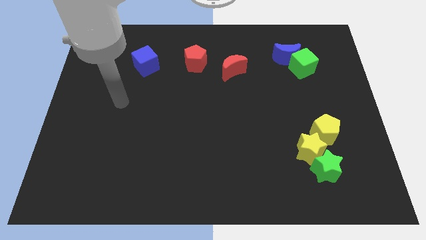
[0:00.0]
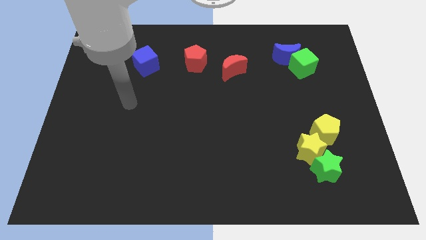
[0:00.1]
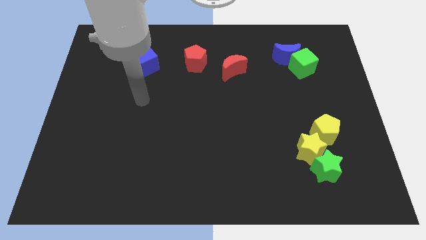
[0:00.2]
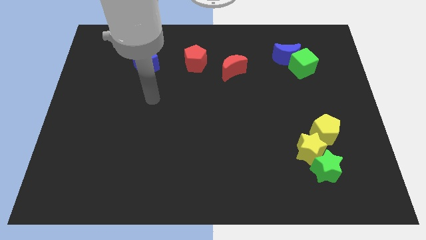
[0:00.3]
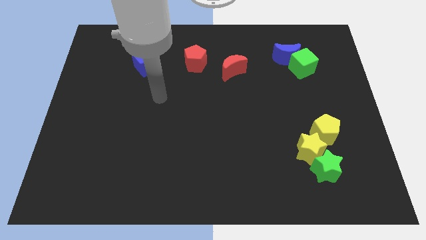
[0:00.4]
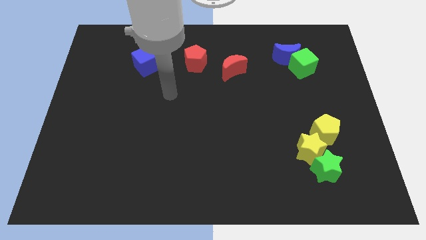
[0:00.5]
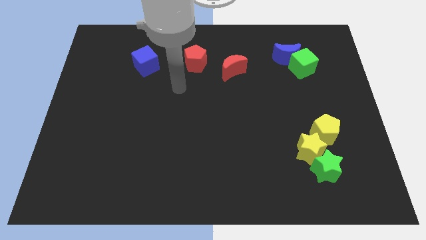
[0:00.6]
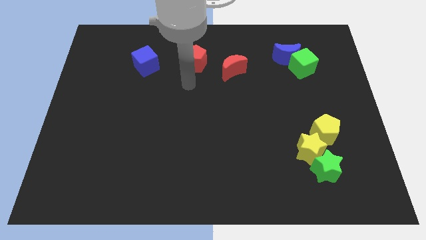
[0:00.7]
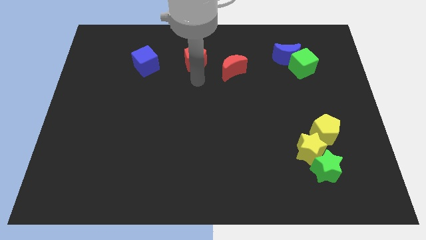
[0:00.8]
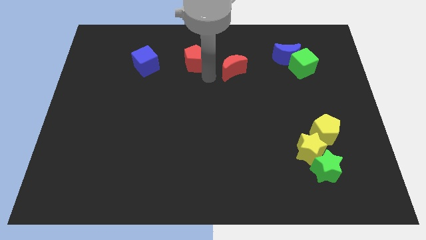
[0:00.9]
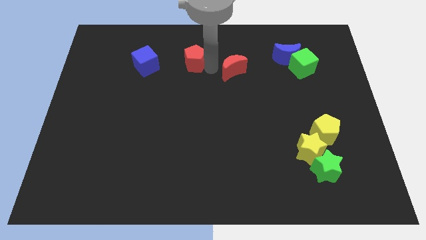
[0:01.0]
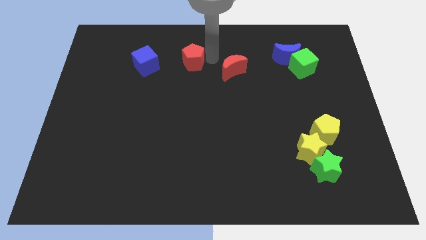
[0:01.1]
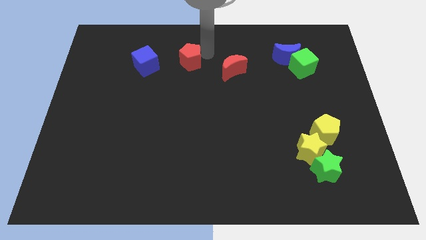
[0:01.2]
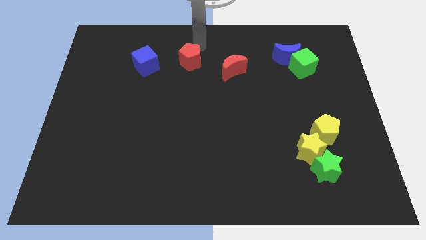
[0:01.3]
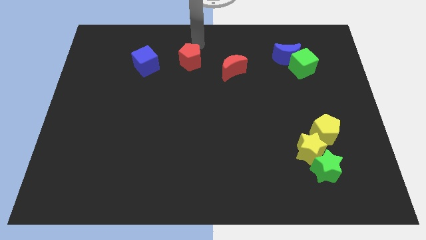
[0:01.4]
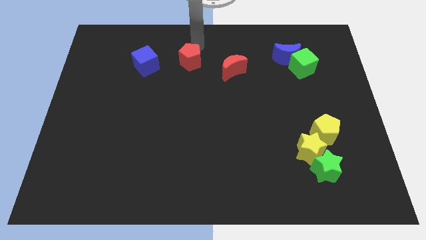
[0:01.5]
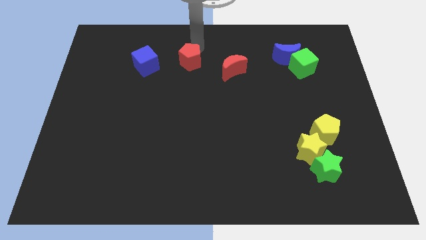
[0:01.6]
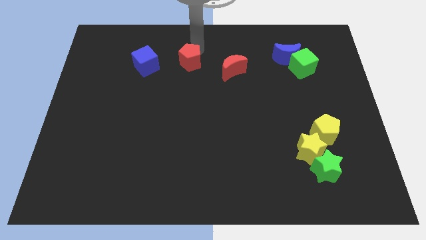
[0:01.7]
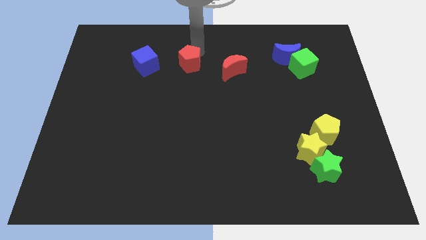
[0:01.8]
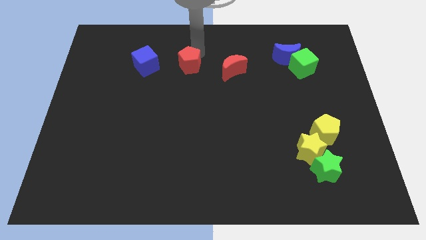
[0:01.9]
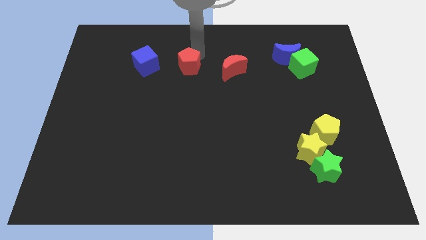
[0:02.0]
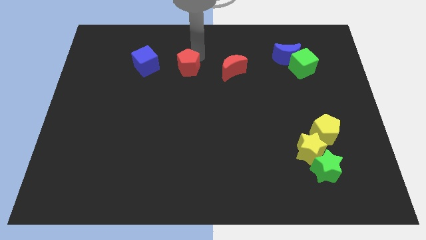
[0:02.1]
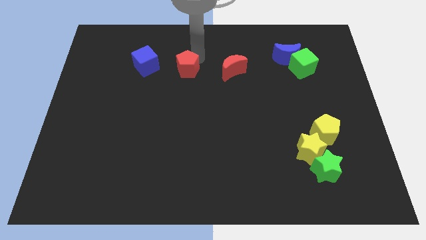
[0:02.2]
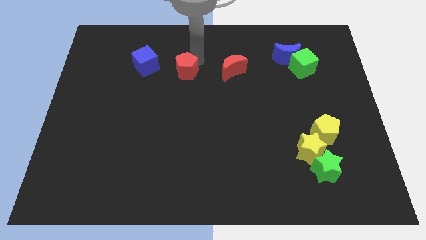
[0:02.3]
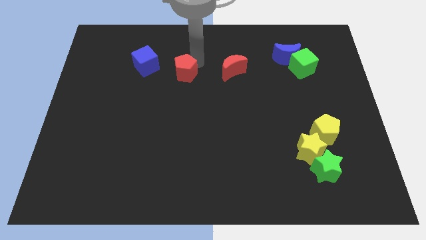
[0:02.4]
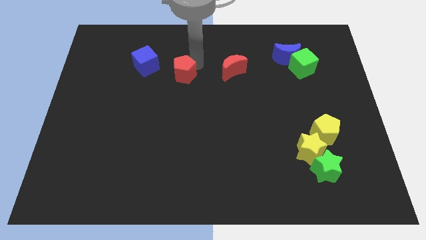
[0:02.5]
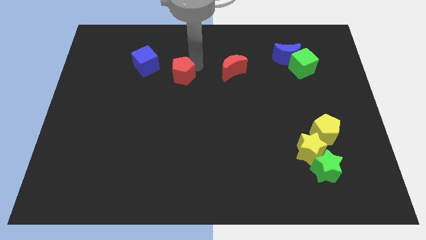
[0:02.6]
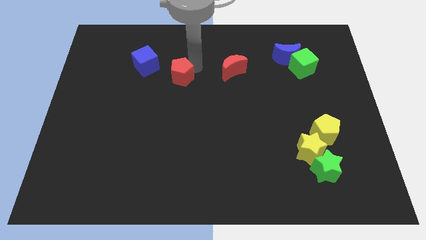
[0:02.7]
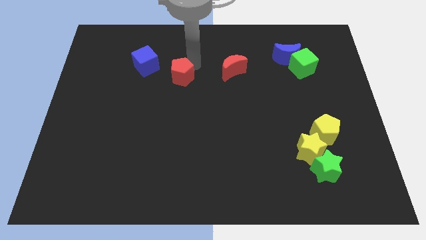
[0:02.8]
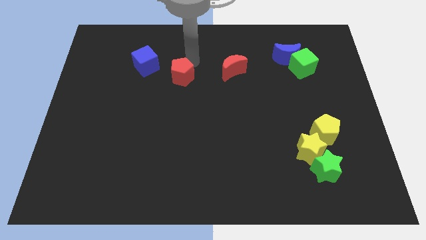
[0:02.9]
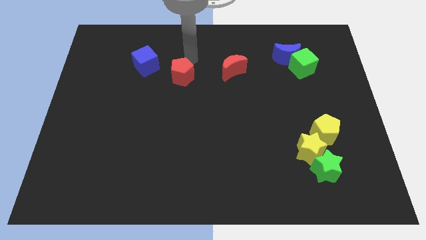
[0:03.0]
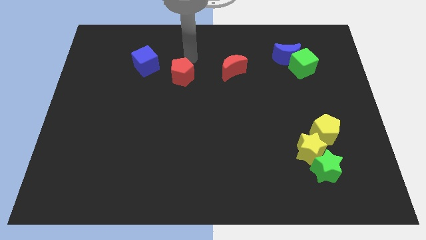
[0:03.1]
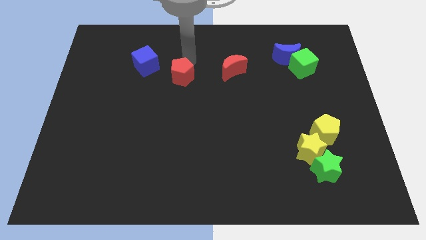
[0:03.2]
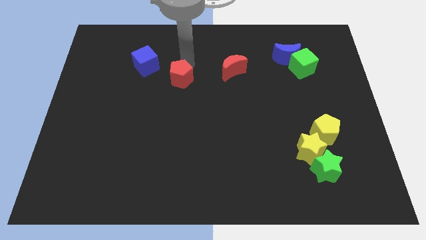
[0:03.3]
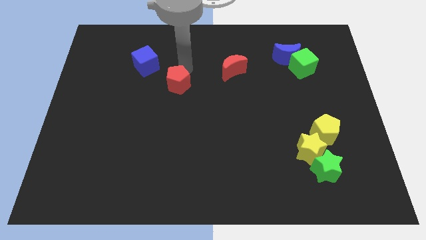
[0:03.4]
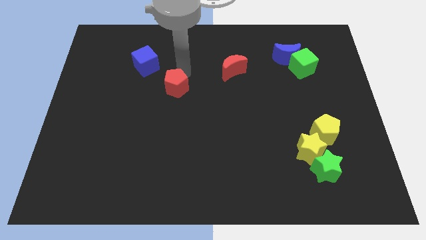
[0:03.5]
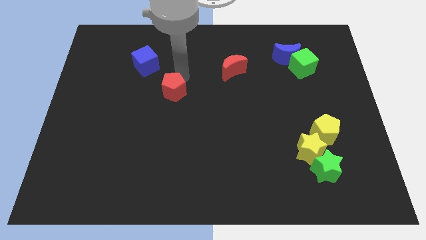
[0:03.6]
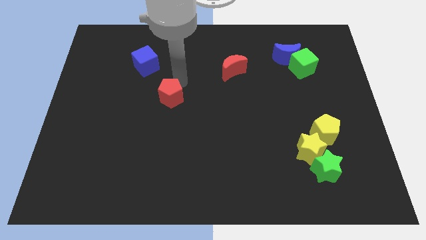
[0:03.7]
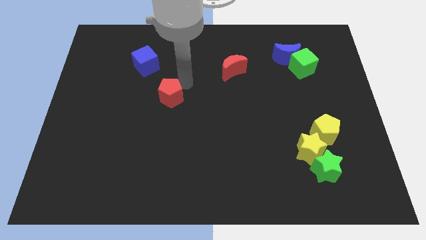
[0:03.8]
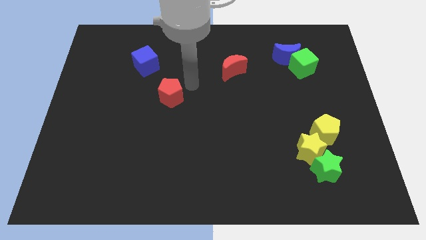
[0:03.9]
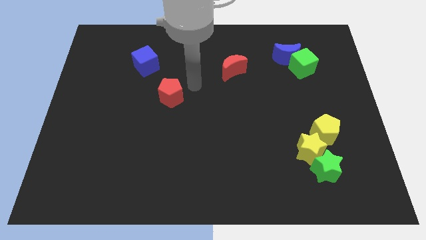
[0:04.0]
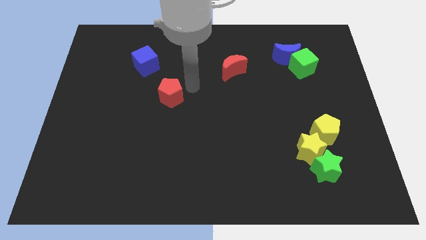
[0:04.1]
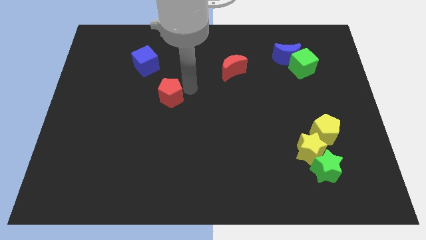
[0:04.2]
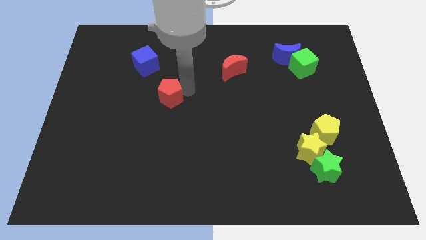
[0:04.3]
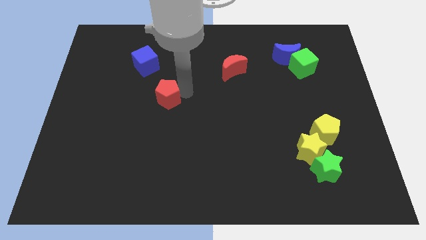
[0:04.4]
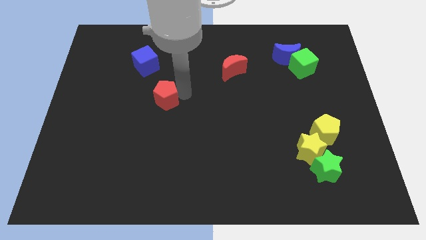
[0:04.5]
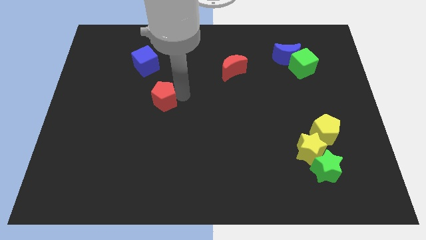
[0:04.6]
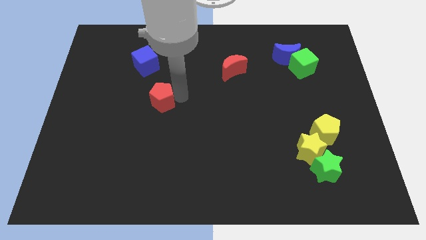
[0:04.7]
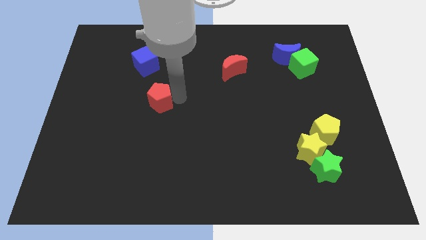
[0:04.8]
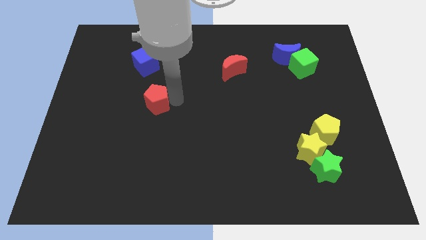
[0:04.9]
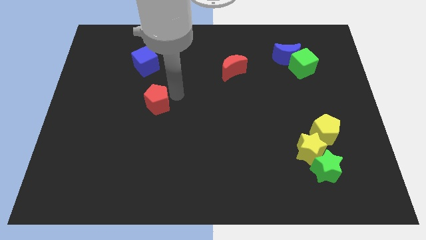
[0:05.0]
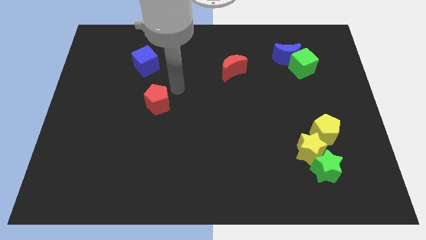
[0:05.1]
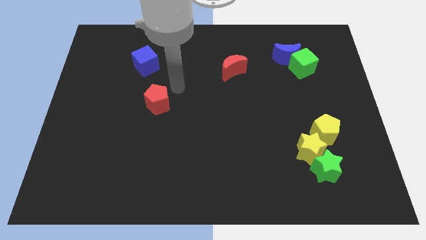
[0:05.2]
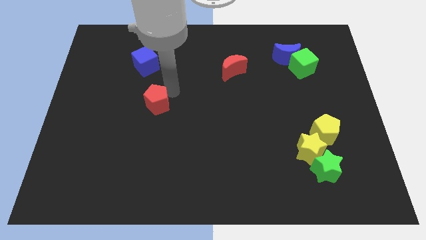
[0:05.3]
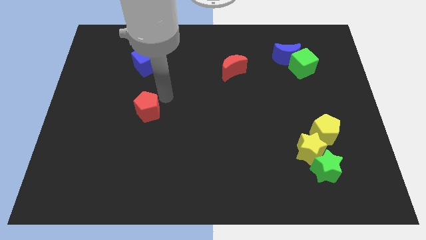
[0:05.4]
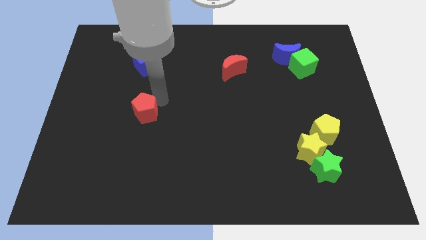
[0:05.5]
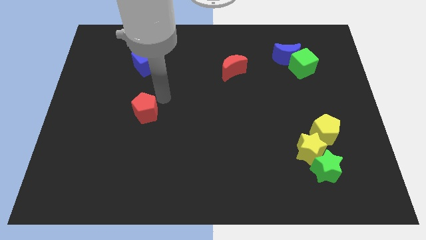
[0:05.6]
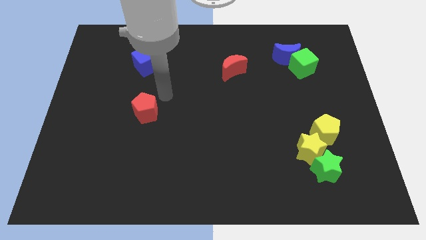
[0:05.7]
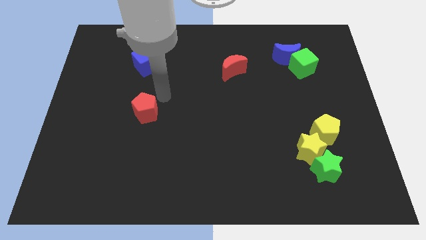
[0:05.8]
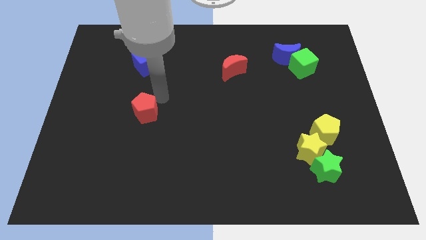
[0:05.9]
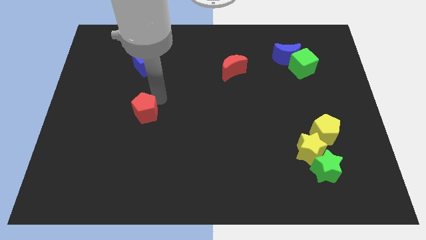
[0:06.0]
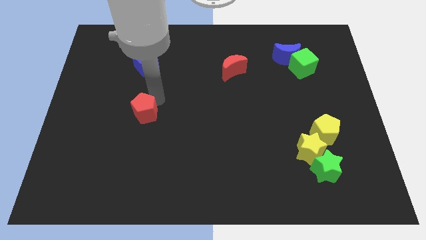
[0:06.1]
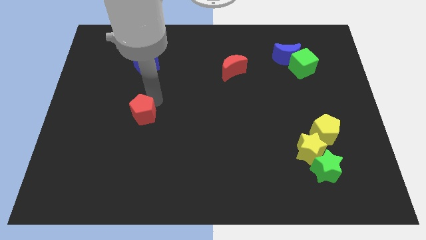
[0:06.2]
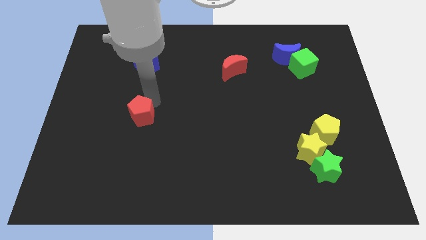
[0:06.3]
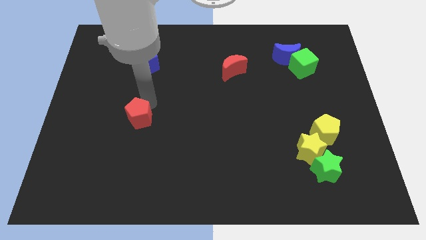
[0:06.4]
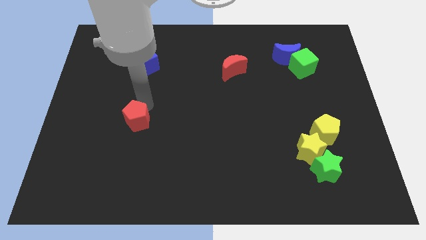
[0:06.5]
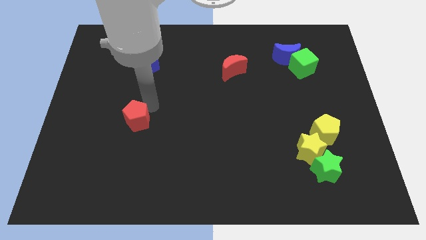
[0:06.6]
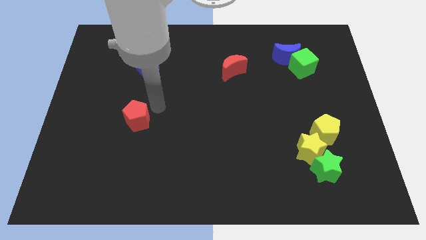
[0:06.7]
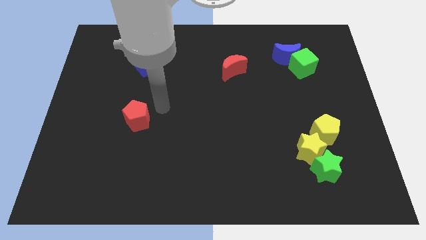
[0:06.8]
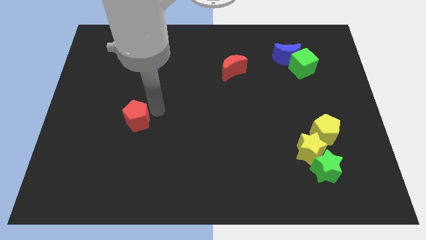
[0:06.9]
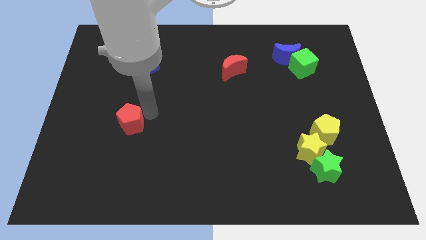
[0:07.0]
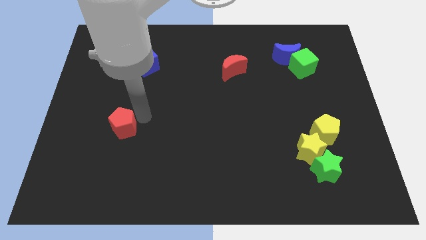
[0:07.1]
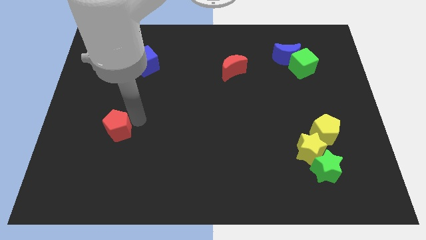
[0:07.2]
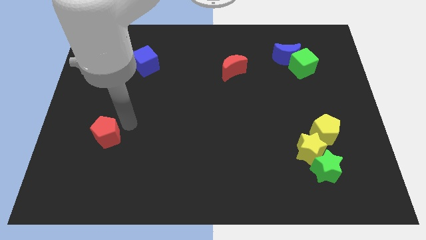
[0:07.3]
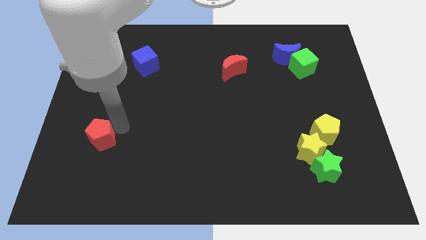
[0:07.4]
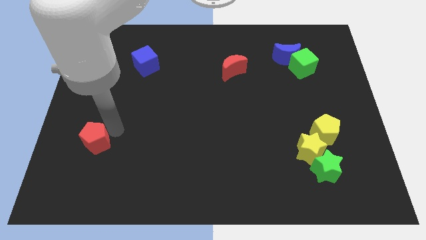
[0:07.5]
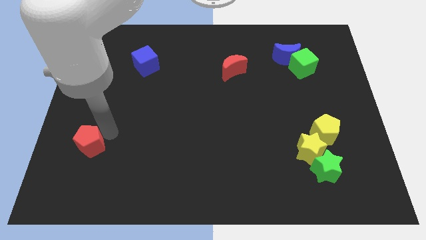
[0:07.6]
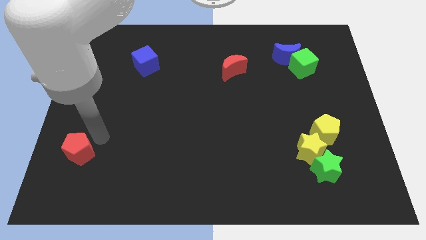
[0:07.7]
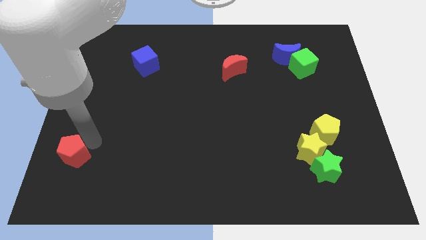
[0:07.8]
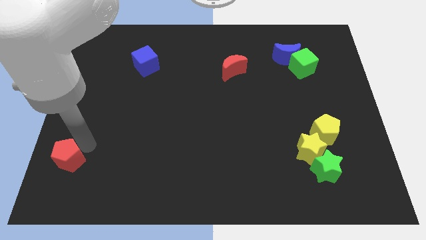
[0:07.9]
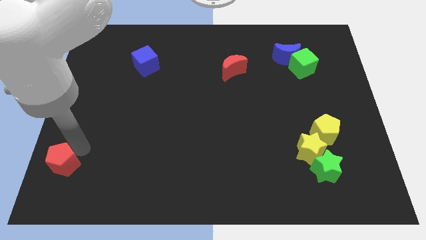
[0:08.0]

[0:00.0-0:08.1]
slide the red pentagon to the bottom left of the board
